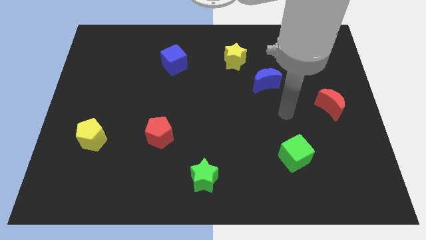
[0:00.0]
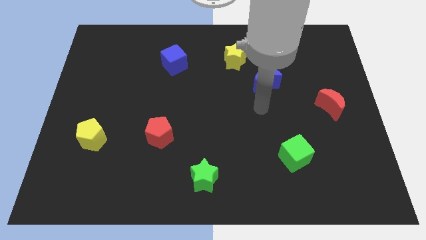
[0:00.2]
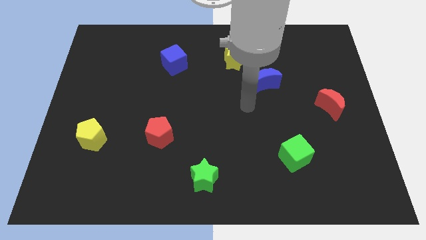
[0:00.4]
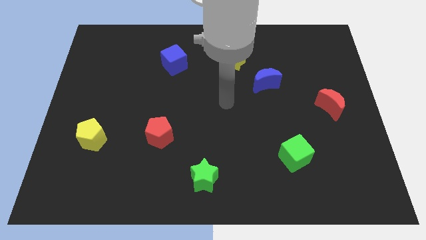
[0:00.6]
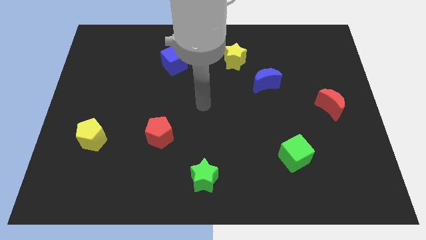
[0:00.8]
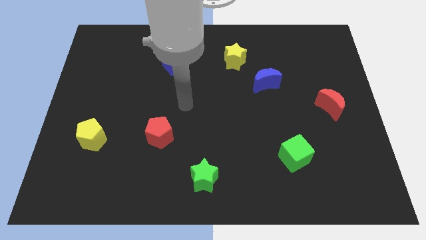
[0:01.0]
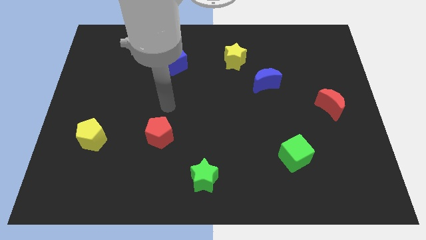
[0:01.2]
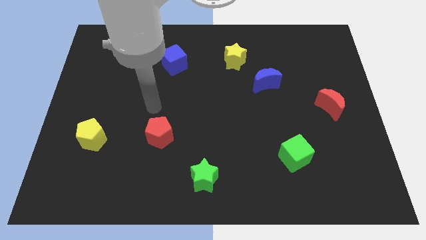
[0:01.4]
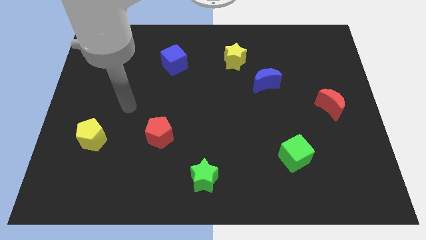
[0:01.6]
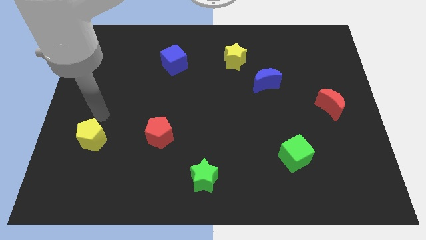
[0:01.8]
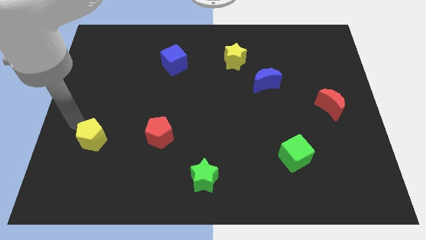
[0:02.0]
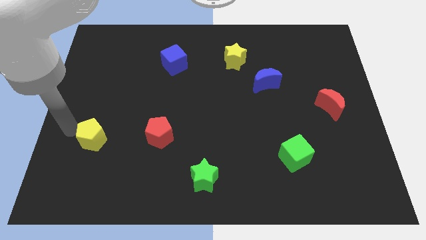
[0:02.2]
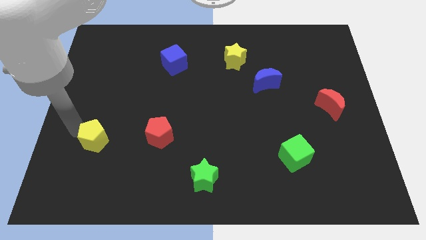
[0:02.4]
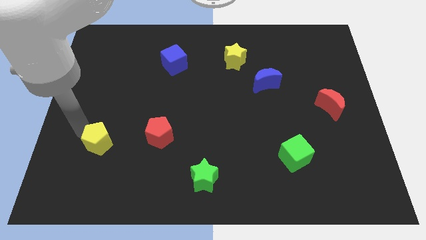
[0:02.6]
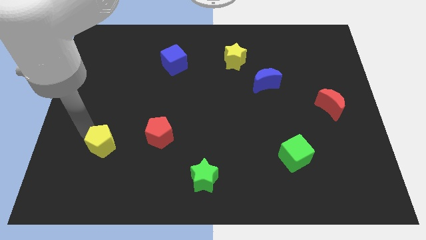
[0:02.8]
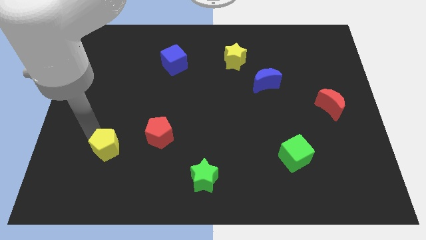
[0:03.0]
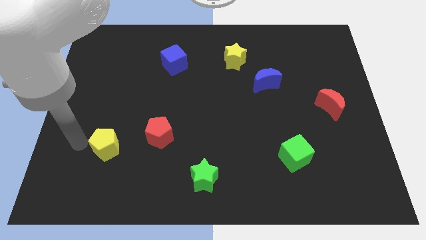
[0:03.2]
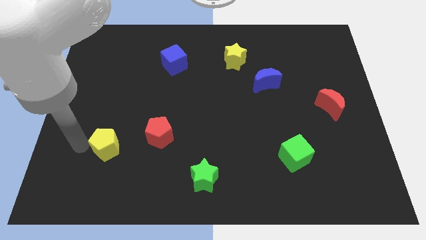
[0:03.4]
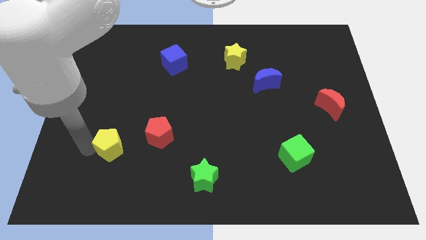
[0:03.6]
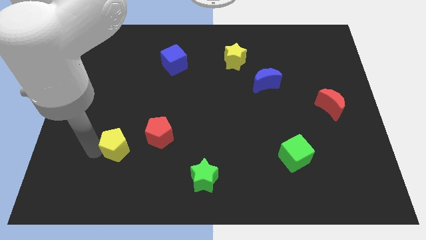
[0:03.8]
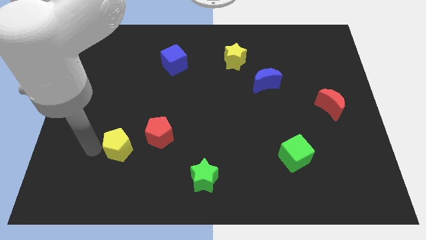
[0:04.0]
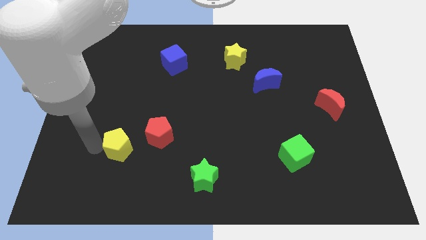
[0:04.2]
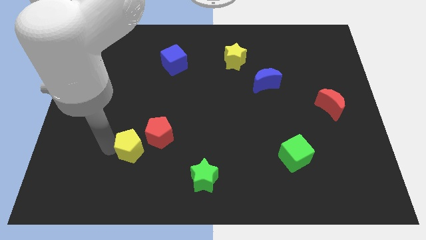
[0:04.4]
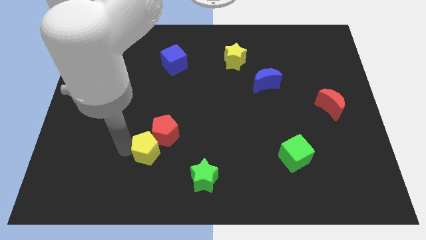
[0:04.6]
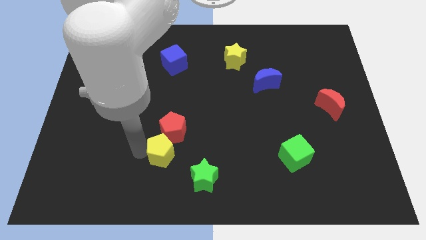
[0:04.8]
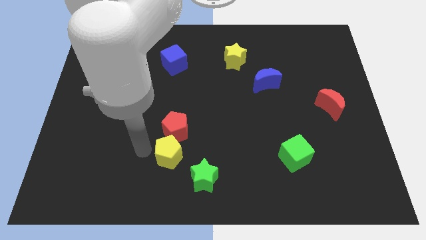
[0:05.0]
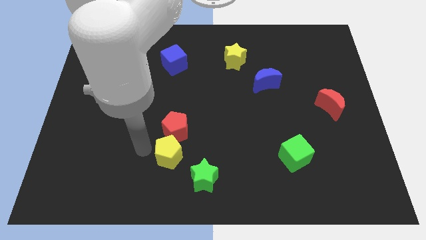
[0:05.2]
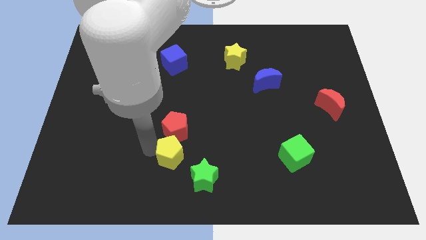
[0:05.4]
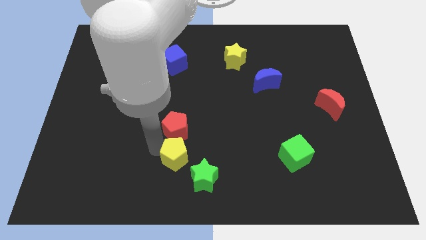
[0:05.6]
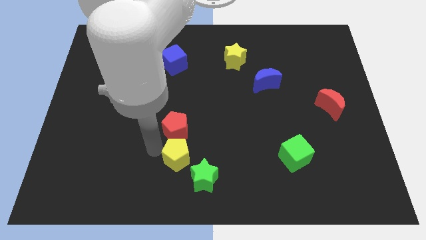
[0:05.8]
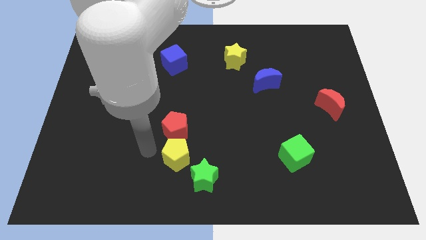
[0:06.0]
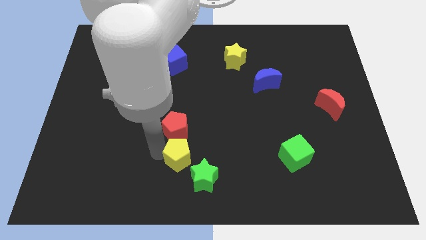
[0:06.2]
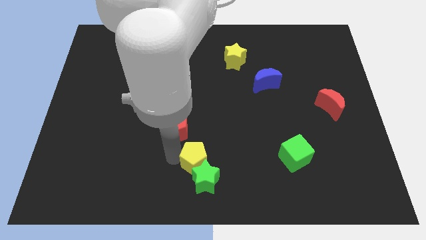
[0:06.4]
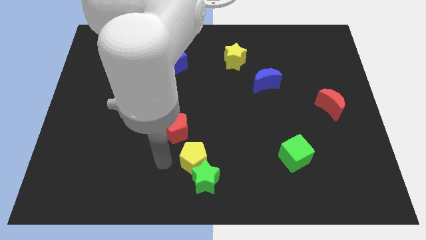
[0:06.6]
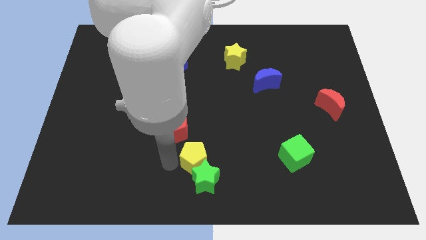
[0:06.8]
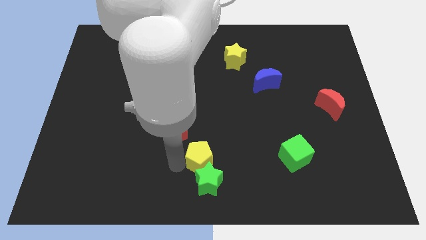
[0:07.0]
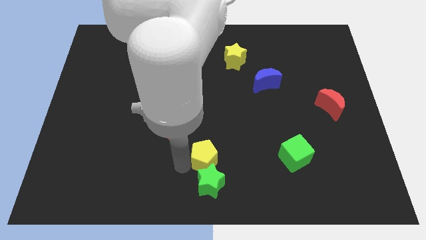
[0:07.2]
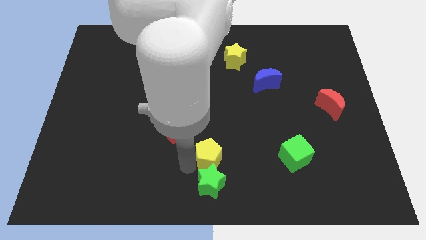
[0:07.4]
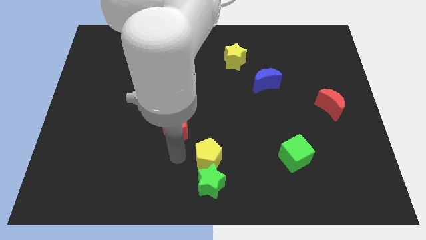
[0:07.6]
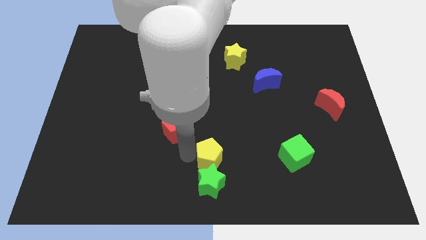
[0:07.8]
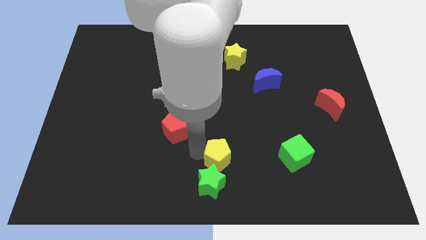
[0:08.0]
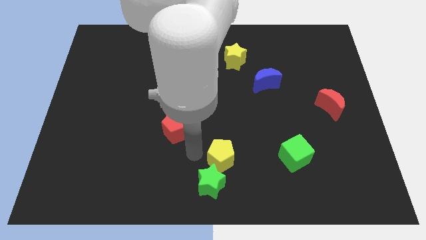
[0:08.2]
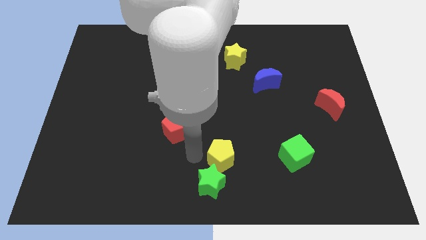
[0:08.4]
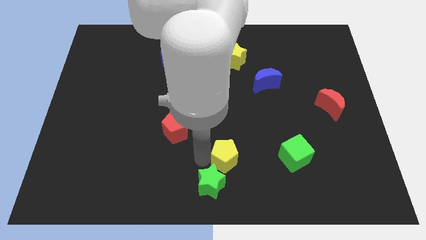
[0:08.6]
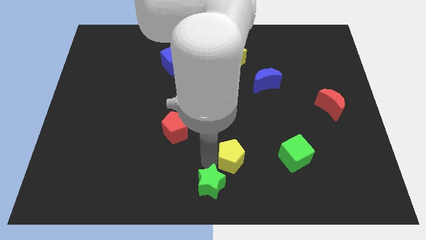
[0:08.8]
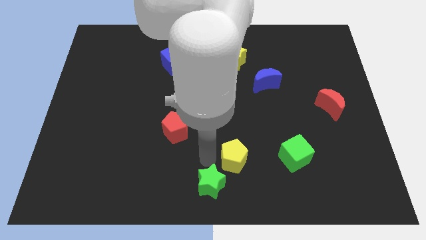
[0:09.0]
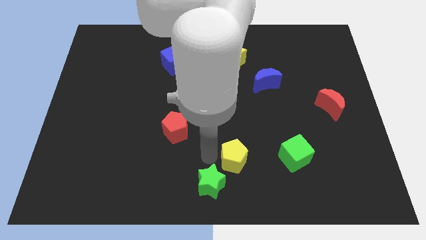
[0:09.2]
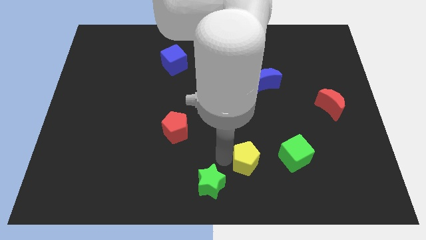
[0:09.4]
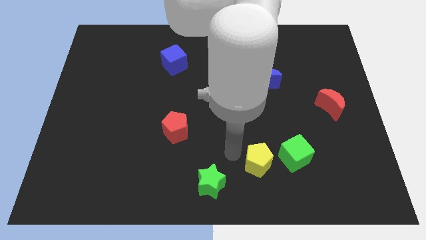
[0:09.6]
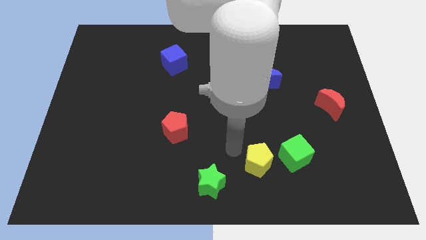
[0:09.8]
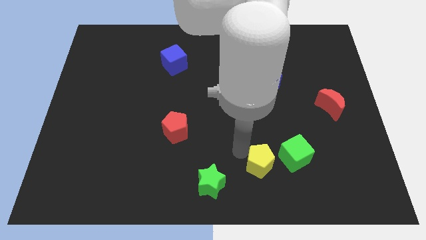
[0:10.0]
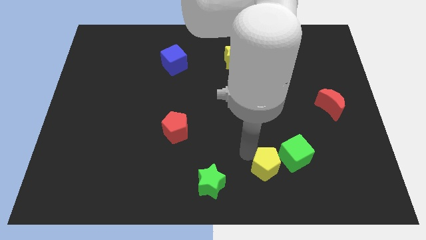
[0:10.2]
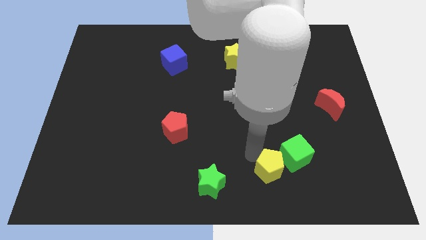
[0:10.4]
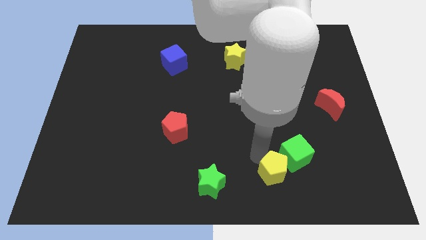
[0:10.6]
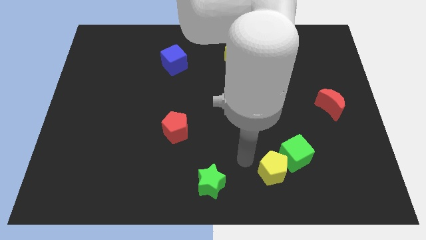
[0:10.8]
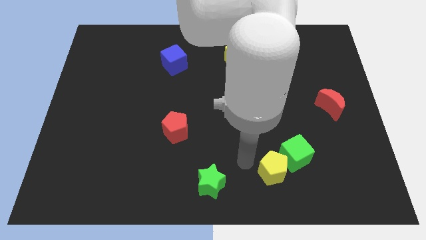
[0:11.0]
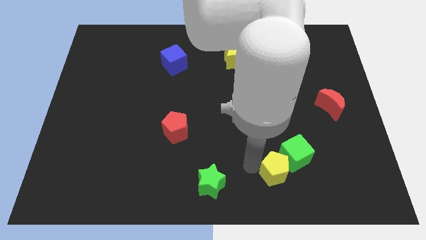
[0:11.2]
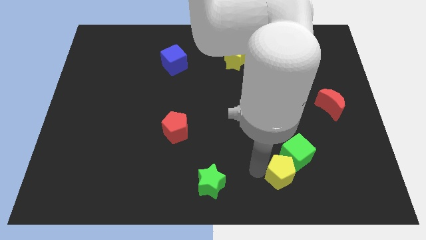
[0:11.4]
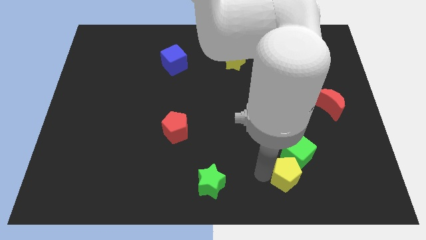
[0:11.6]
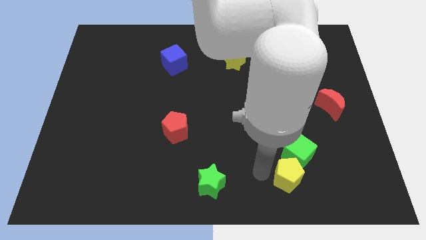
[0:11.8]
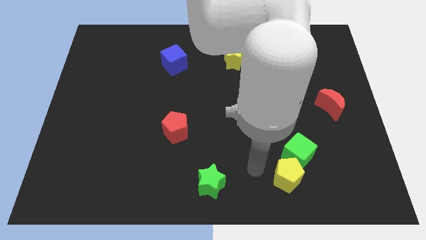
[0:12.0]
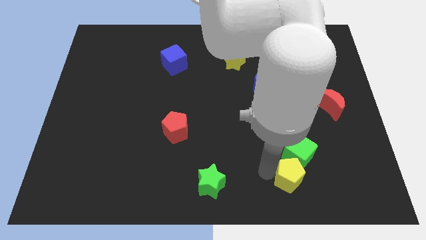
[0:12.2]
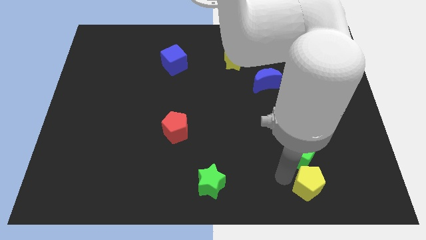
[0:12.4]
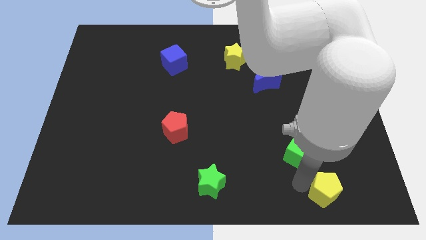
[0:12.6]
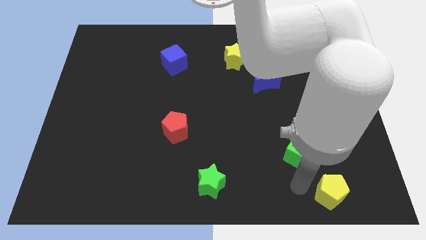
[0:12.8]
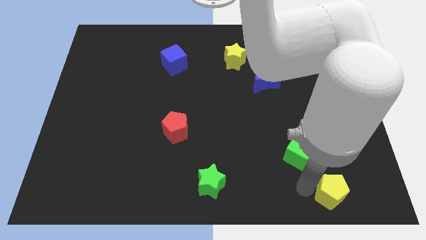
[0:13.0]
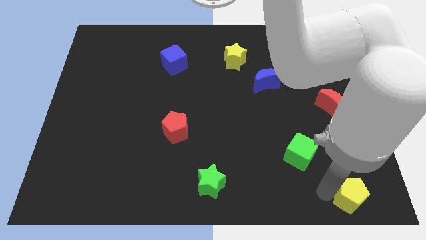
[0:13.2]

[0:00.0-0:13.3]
move the yellow pentagon to the bottom right
